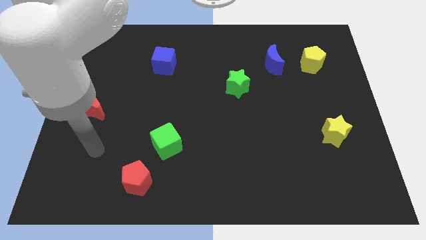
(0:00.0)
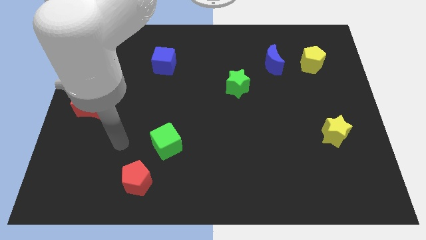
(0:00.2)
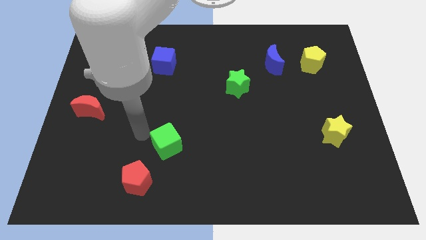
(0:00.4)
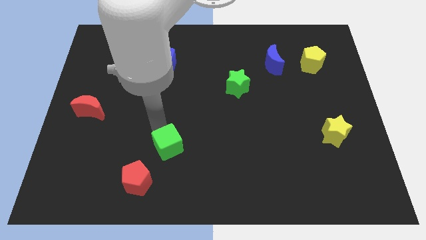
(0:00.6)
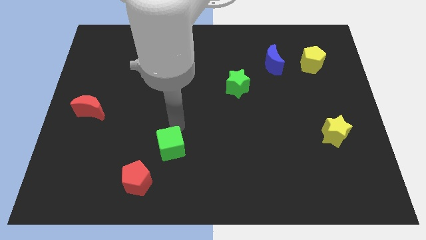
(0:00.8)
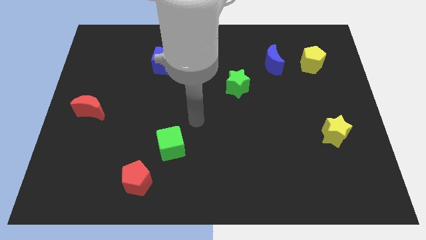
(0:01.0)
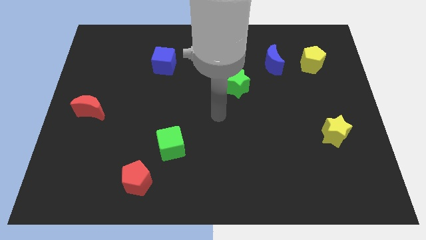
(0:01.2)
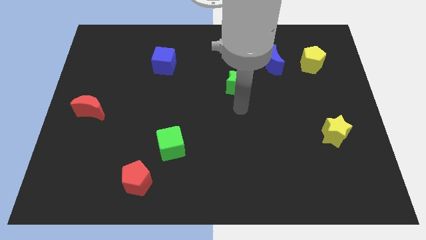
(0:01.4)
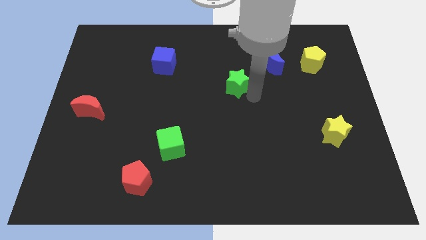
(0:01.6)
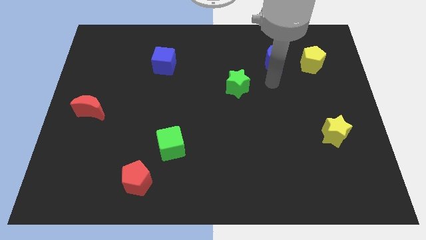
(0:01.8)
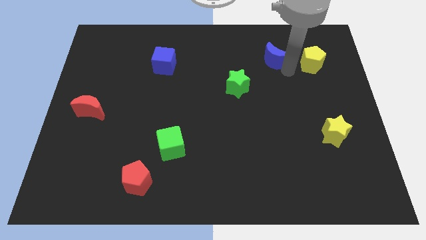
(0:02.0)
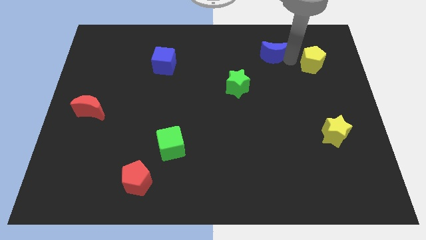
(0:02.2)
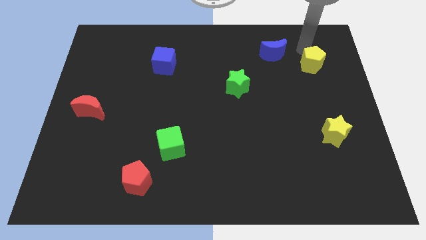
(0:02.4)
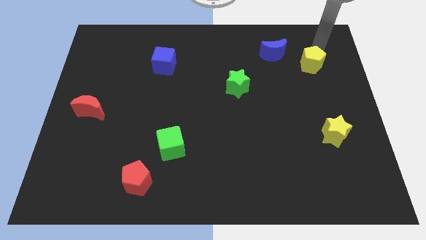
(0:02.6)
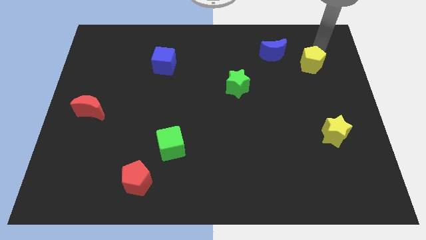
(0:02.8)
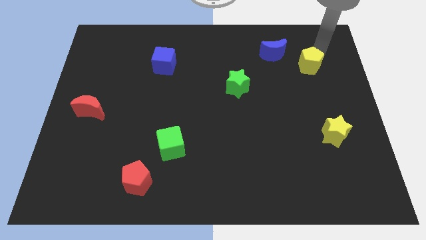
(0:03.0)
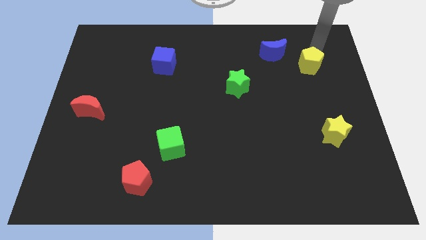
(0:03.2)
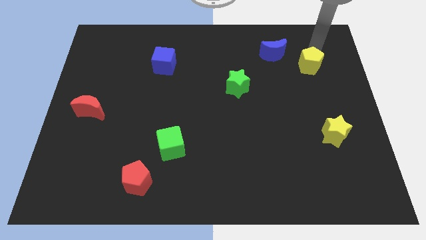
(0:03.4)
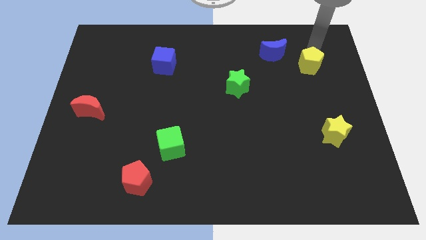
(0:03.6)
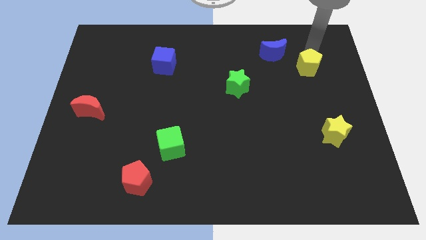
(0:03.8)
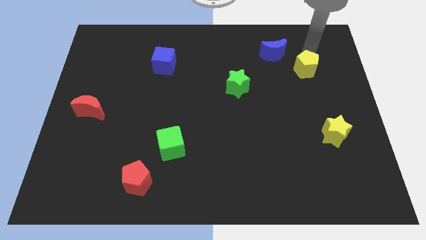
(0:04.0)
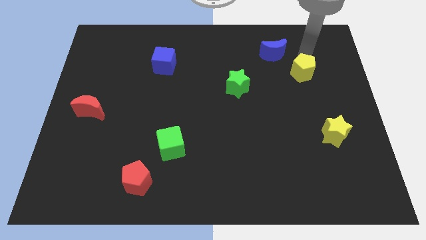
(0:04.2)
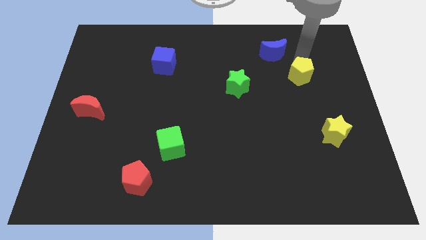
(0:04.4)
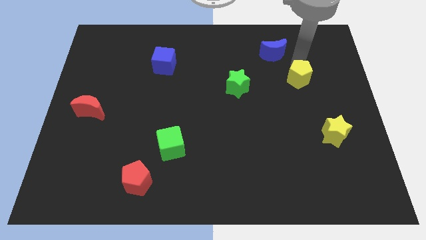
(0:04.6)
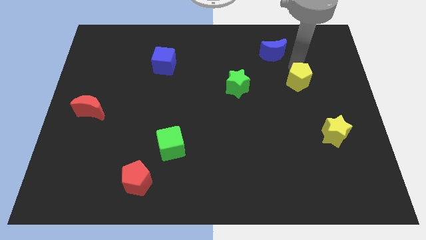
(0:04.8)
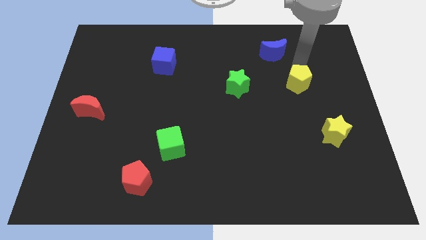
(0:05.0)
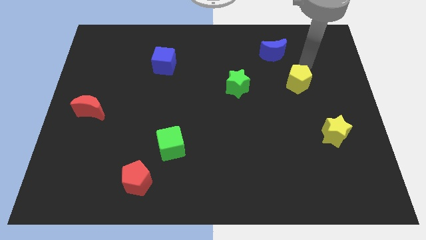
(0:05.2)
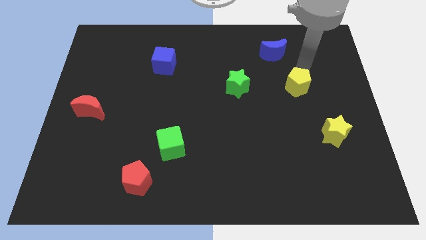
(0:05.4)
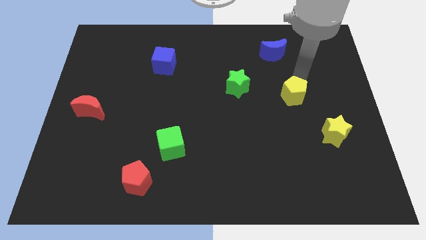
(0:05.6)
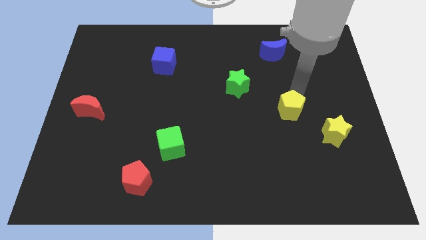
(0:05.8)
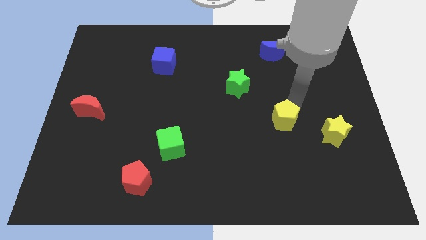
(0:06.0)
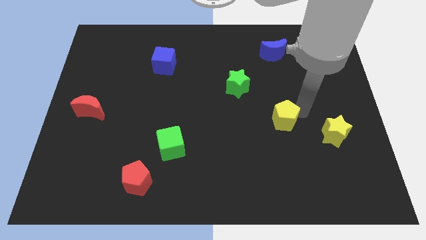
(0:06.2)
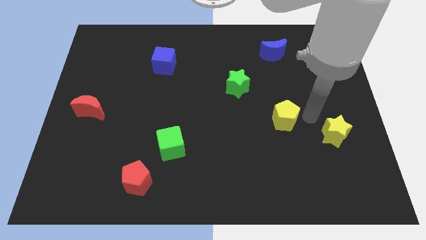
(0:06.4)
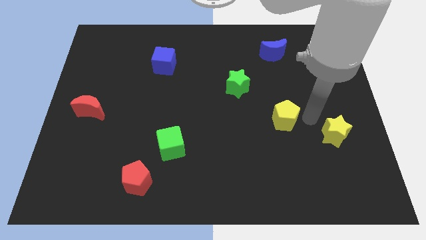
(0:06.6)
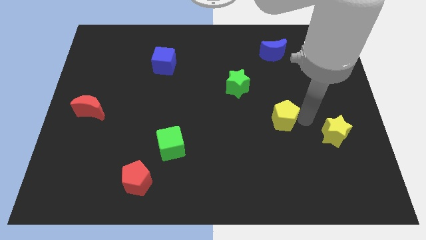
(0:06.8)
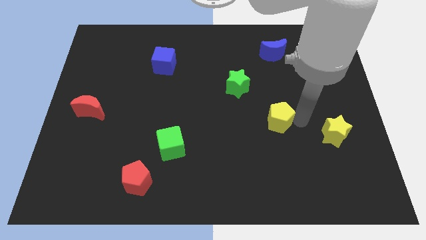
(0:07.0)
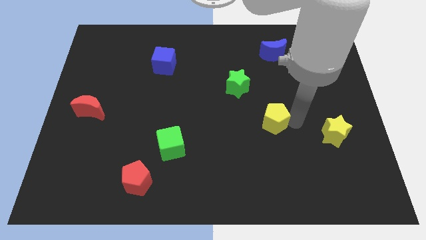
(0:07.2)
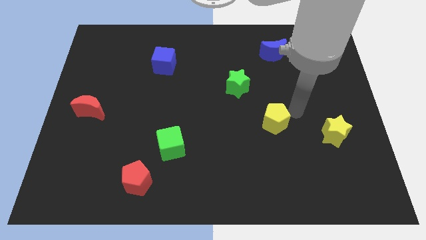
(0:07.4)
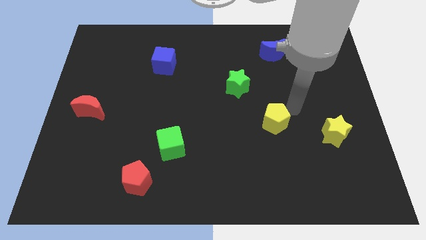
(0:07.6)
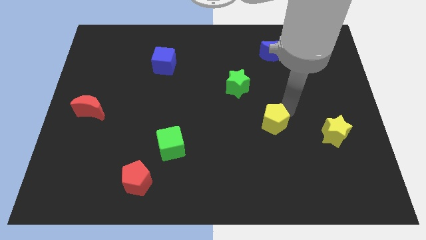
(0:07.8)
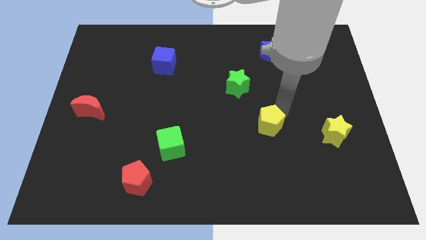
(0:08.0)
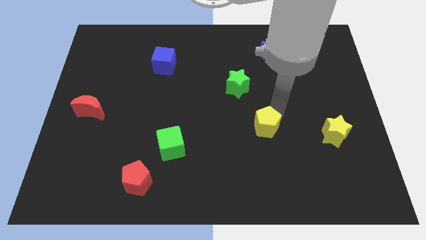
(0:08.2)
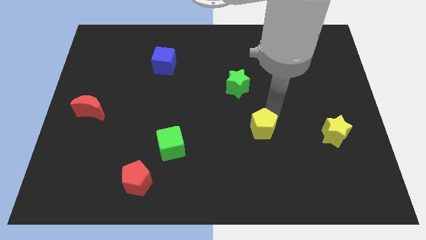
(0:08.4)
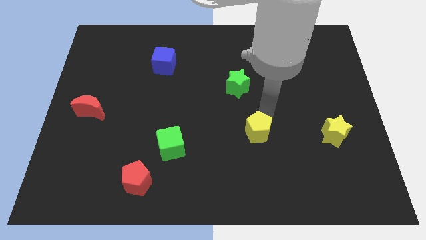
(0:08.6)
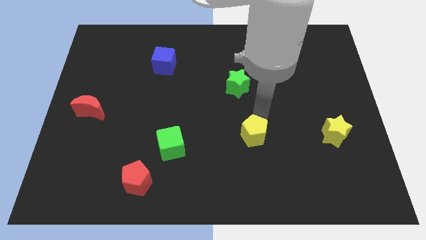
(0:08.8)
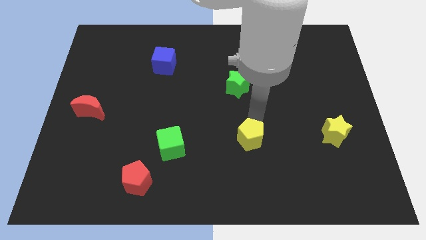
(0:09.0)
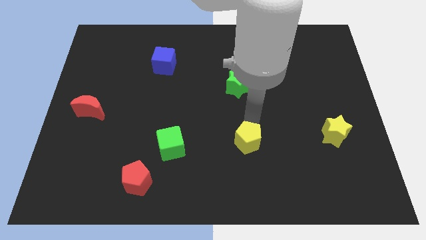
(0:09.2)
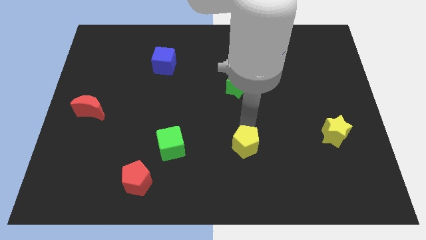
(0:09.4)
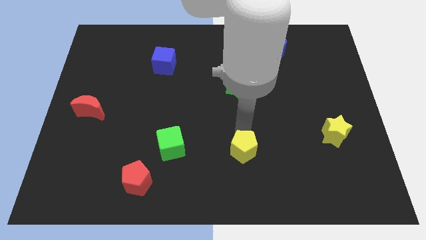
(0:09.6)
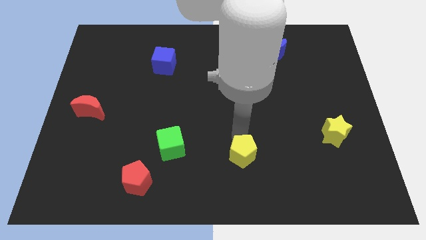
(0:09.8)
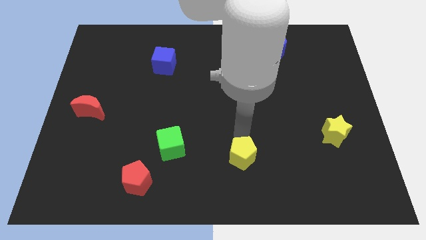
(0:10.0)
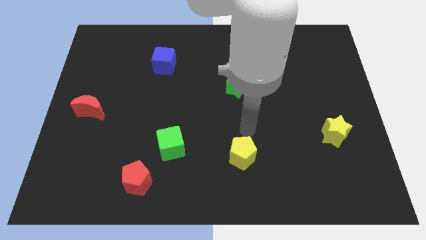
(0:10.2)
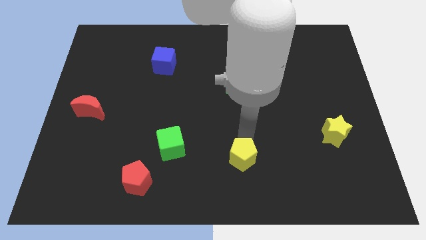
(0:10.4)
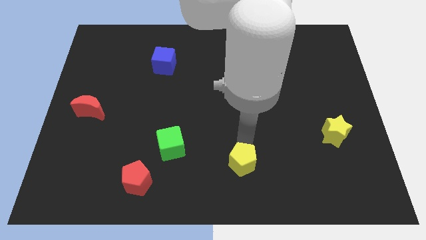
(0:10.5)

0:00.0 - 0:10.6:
slide the yellow pentagon to the bottom
